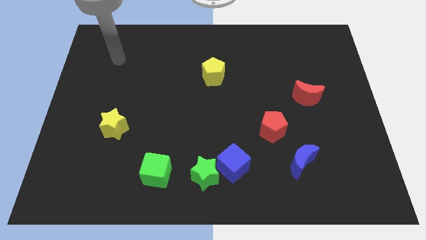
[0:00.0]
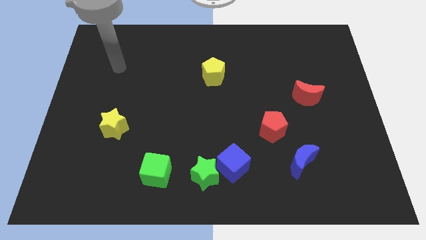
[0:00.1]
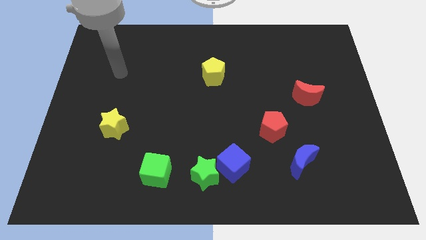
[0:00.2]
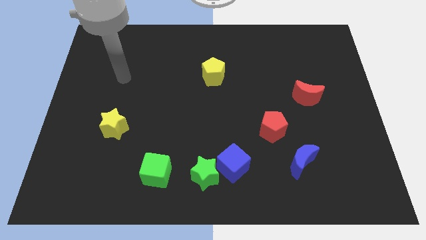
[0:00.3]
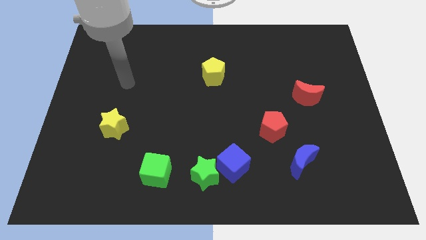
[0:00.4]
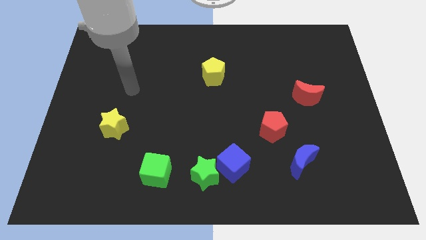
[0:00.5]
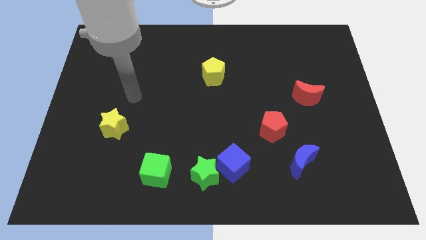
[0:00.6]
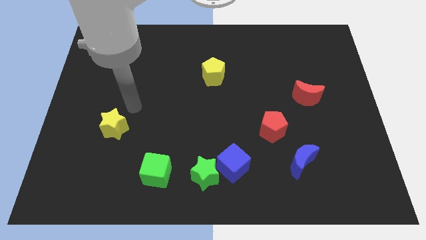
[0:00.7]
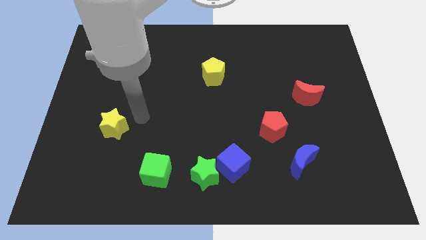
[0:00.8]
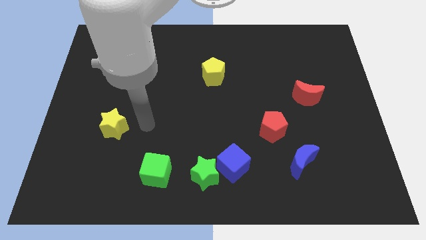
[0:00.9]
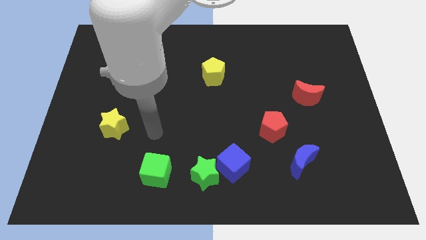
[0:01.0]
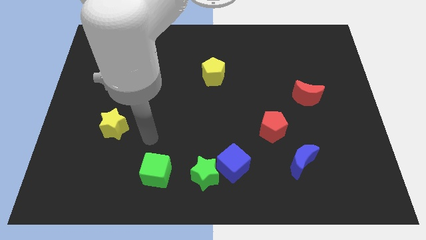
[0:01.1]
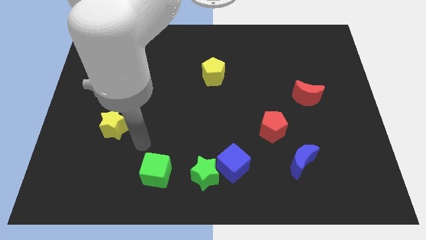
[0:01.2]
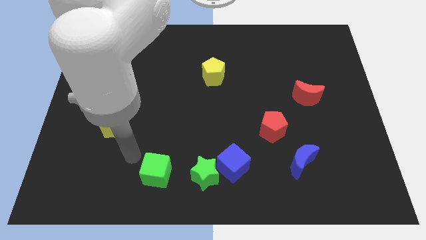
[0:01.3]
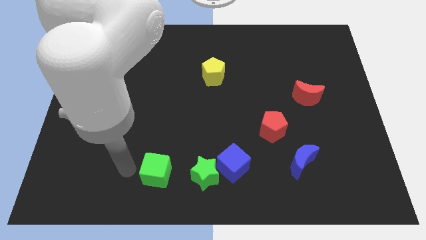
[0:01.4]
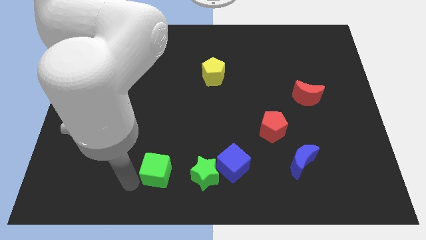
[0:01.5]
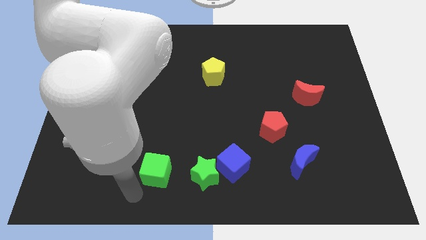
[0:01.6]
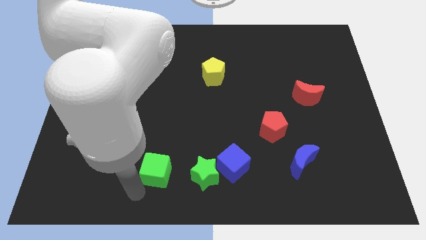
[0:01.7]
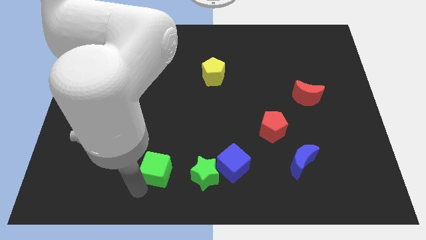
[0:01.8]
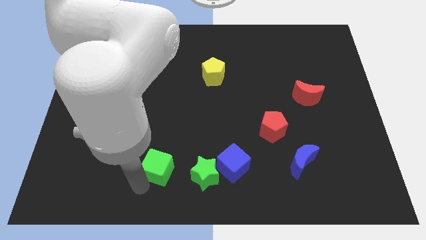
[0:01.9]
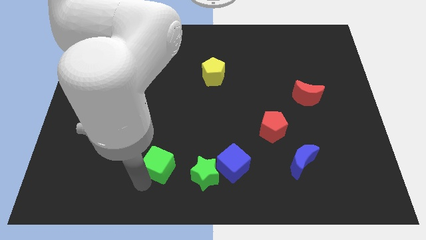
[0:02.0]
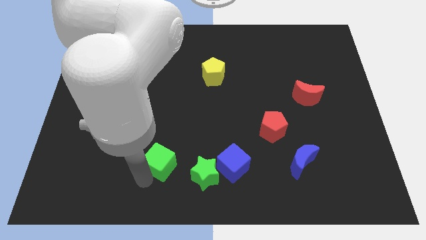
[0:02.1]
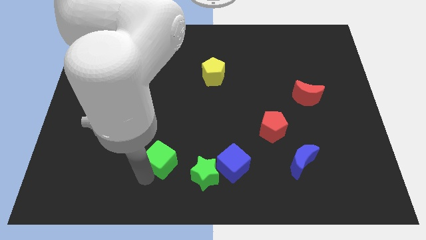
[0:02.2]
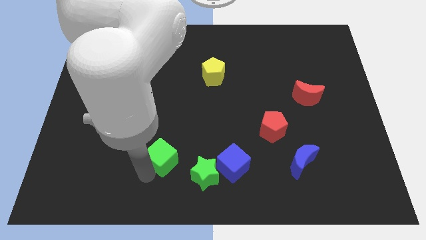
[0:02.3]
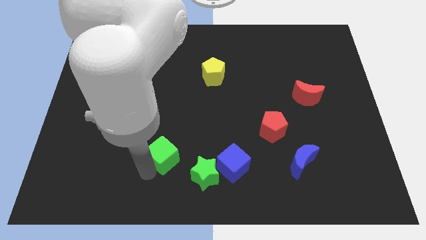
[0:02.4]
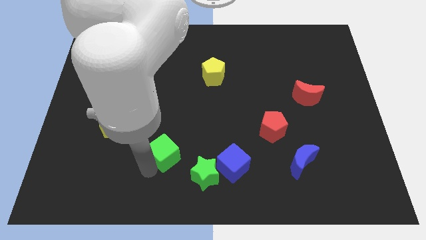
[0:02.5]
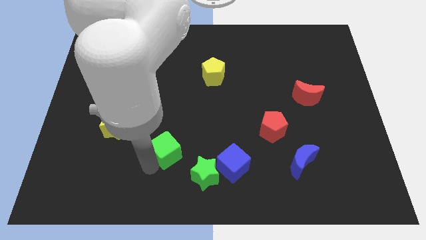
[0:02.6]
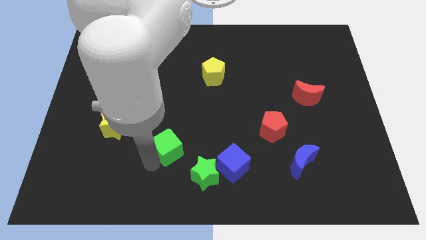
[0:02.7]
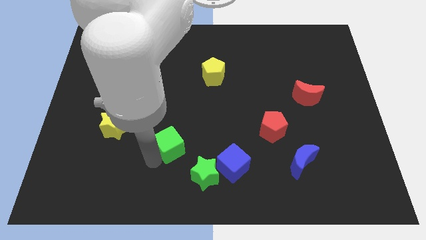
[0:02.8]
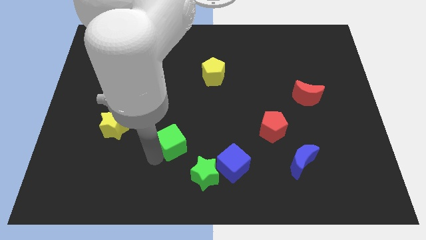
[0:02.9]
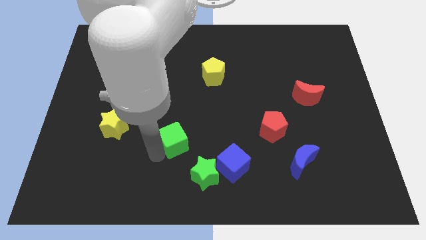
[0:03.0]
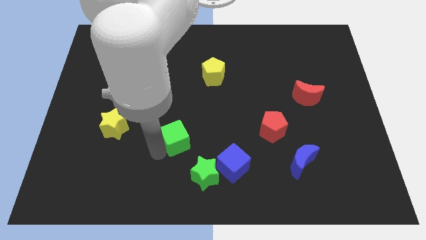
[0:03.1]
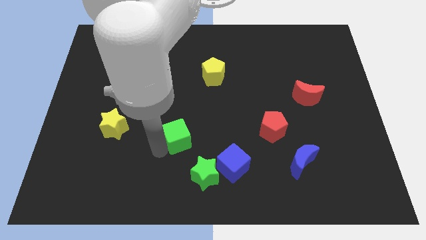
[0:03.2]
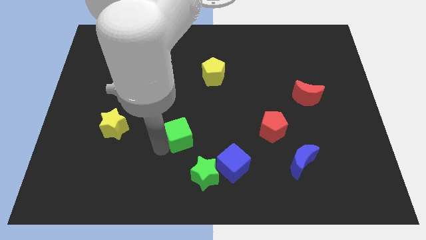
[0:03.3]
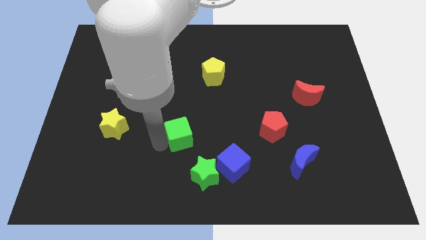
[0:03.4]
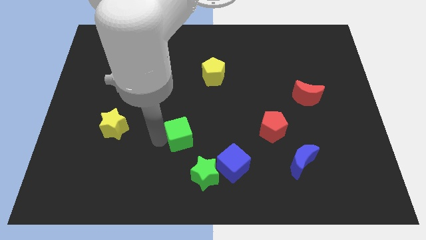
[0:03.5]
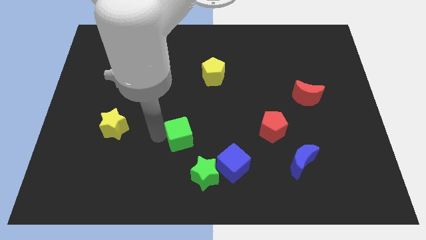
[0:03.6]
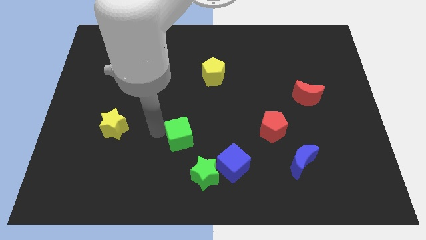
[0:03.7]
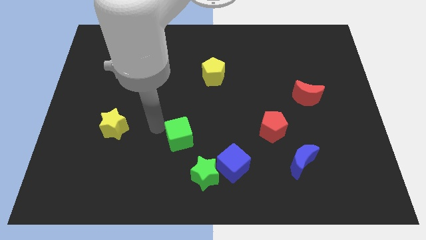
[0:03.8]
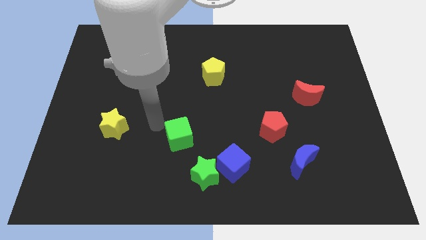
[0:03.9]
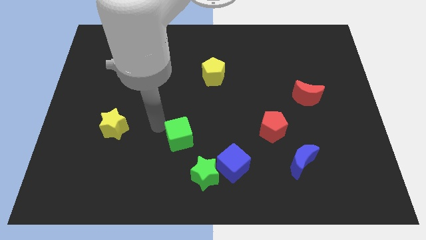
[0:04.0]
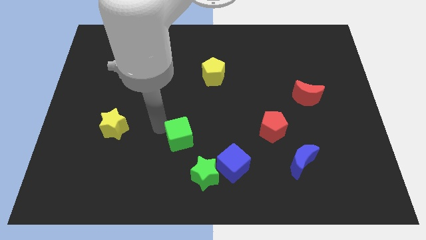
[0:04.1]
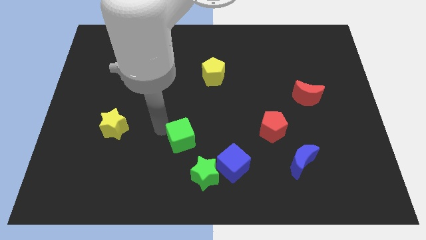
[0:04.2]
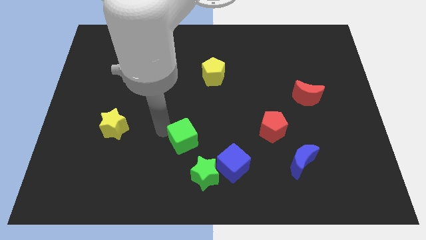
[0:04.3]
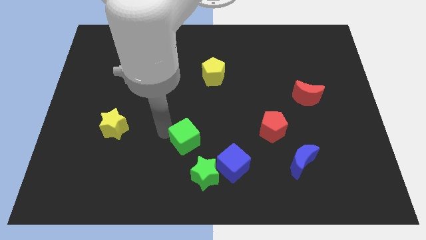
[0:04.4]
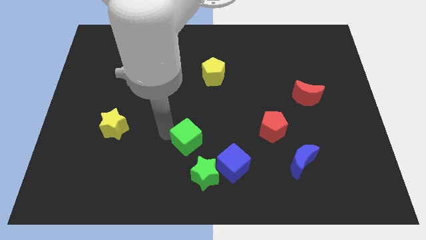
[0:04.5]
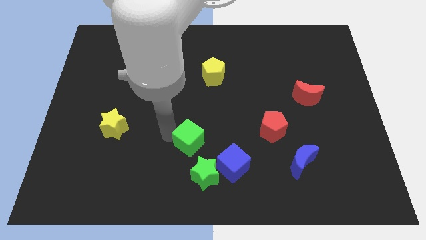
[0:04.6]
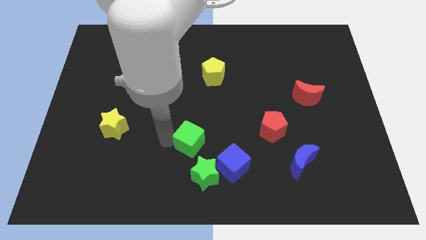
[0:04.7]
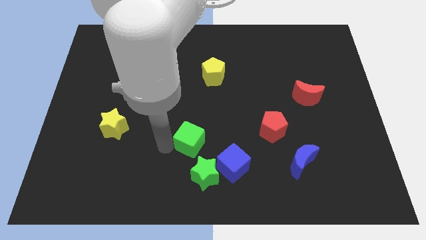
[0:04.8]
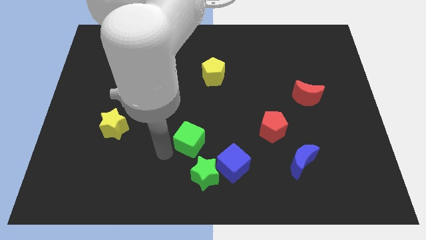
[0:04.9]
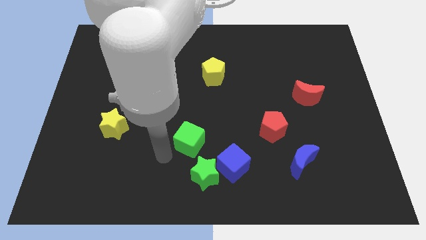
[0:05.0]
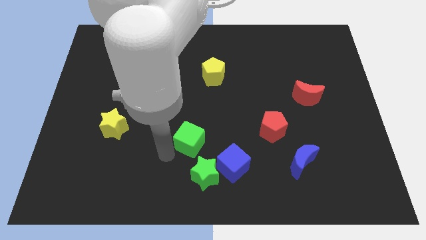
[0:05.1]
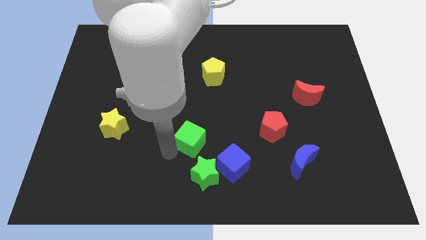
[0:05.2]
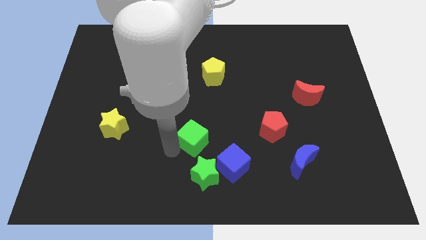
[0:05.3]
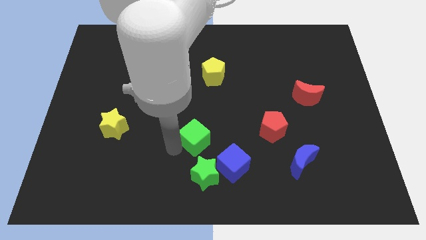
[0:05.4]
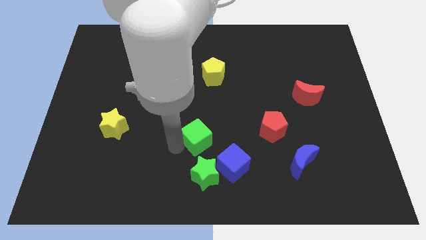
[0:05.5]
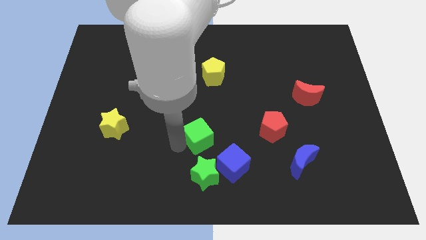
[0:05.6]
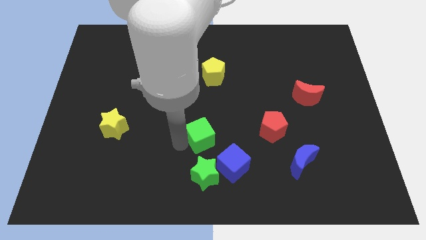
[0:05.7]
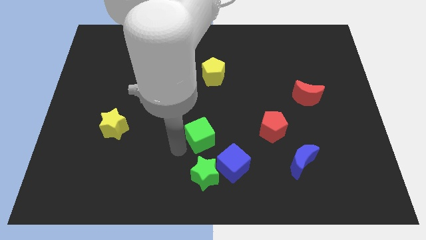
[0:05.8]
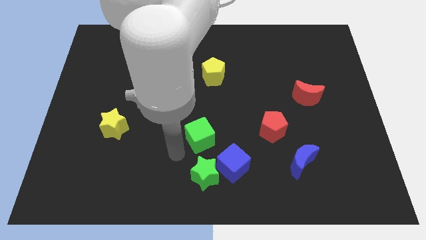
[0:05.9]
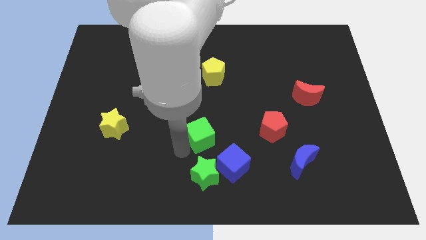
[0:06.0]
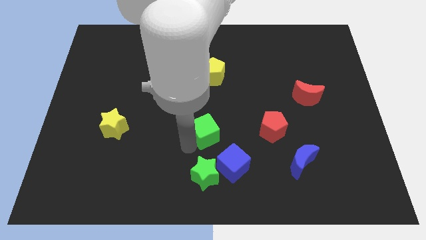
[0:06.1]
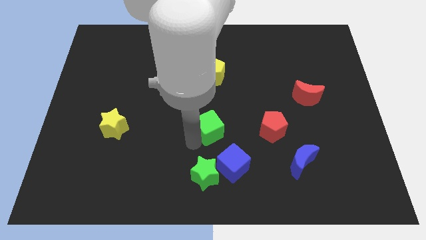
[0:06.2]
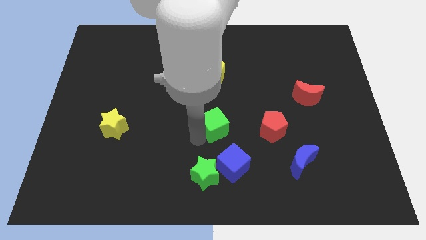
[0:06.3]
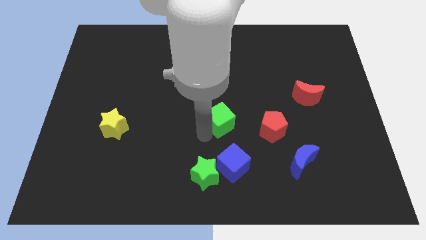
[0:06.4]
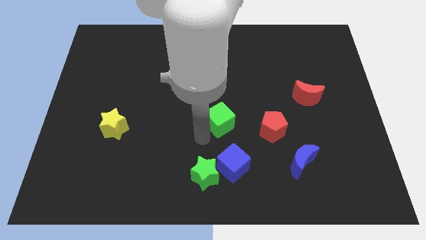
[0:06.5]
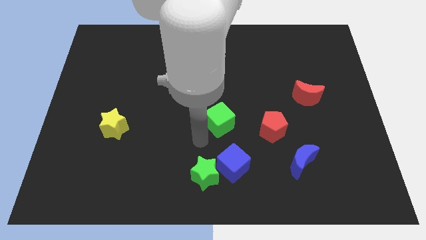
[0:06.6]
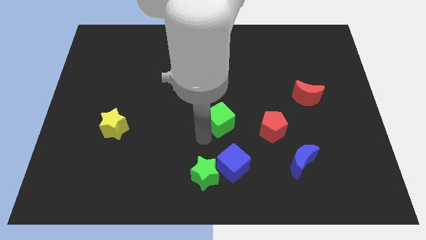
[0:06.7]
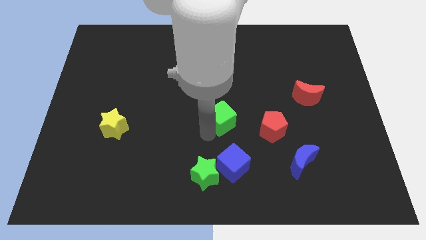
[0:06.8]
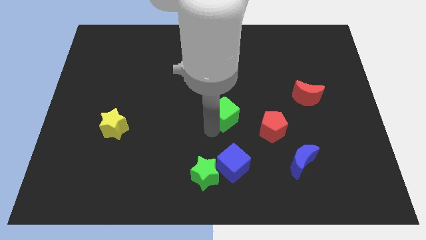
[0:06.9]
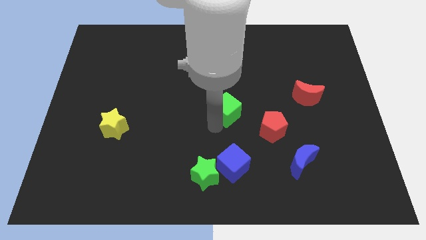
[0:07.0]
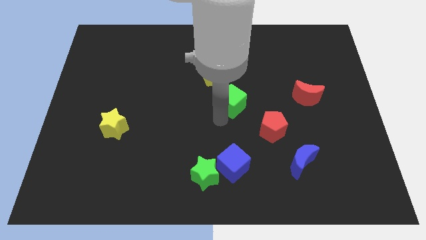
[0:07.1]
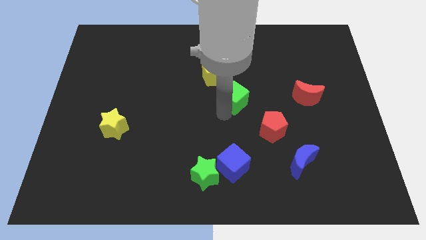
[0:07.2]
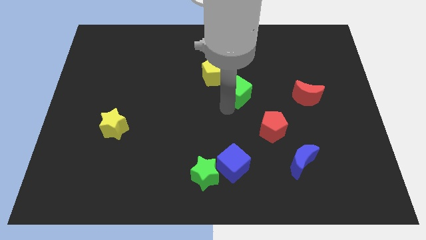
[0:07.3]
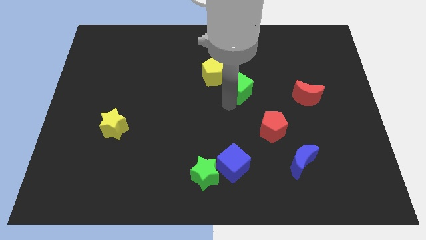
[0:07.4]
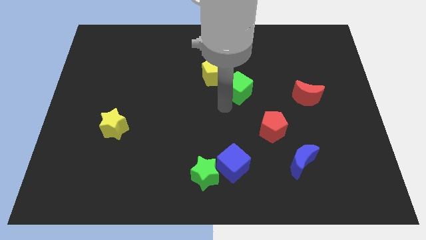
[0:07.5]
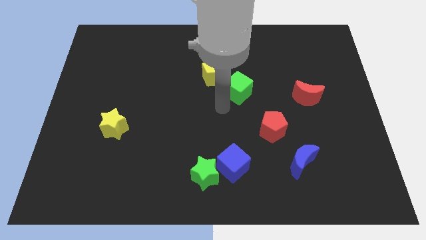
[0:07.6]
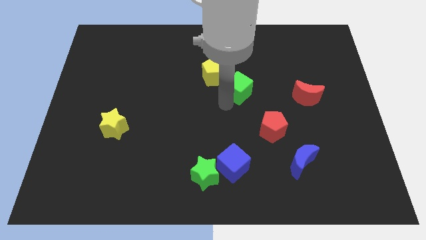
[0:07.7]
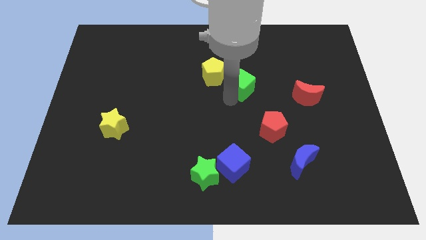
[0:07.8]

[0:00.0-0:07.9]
move the green cube to the right of the yellow pentagon
